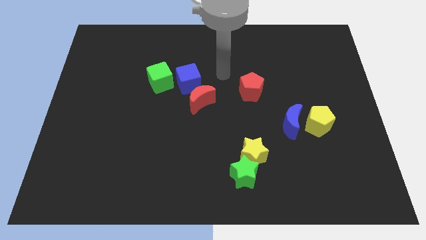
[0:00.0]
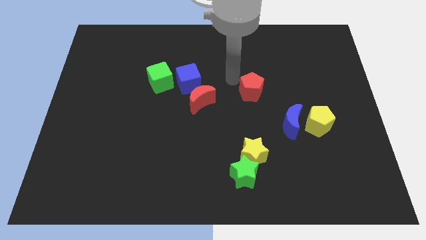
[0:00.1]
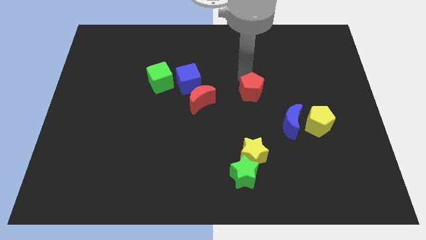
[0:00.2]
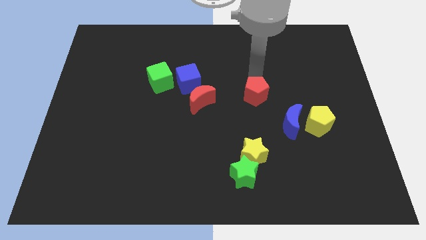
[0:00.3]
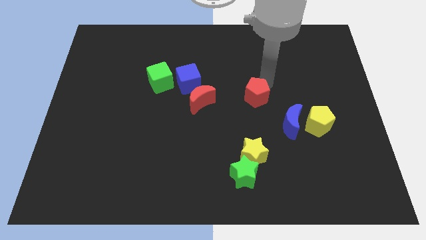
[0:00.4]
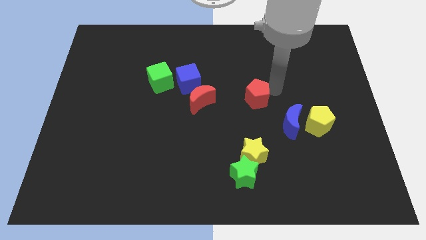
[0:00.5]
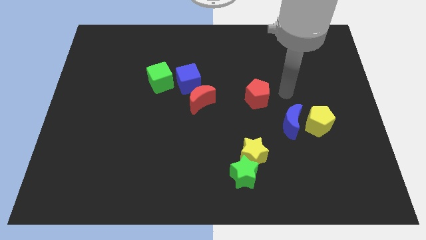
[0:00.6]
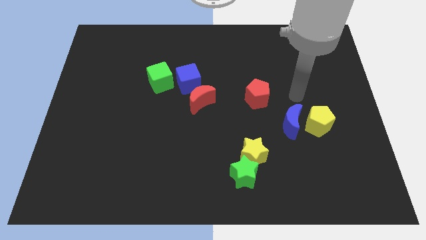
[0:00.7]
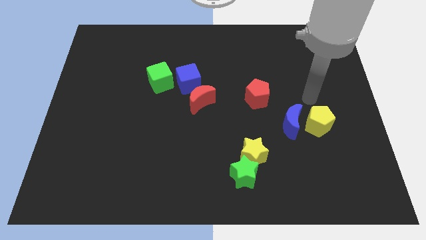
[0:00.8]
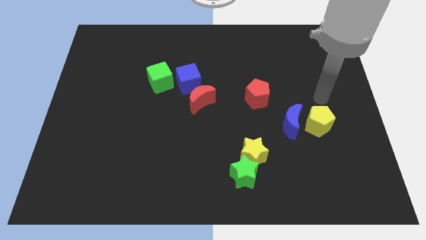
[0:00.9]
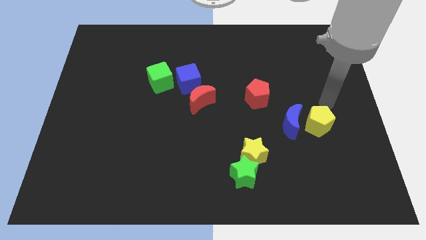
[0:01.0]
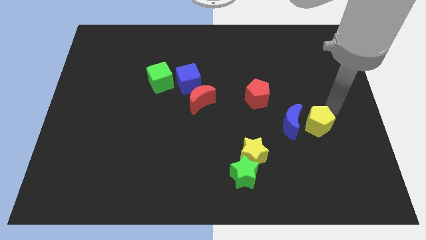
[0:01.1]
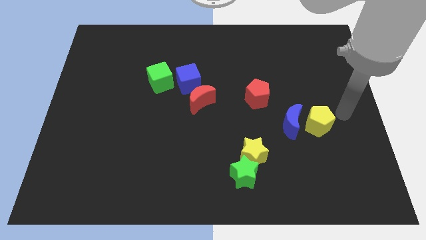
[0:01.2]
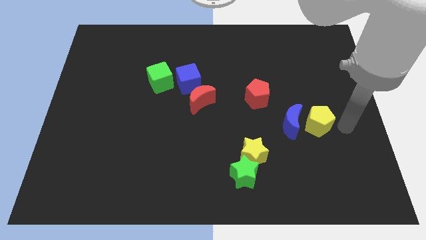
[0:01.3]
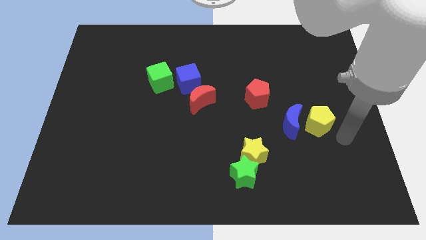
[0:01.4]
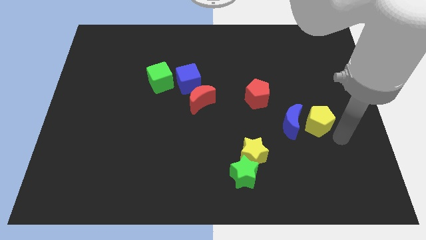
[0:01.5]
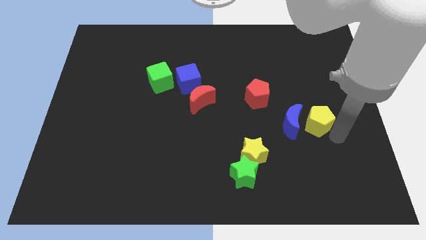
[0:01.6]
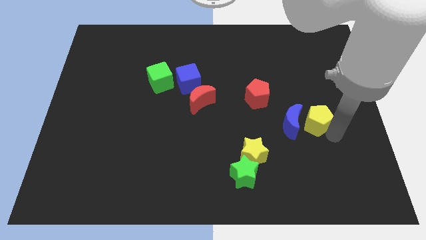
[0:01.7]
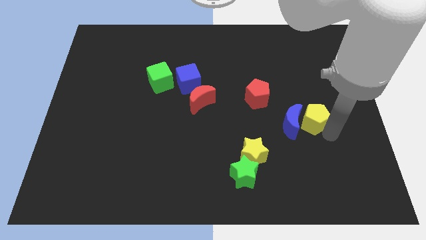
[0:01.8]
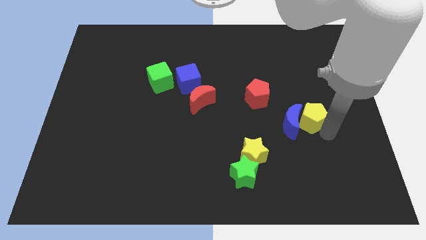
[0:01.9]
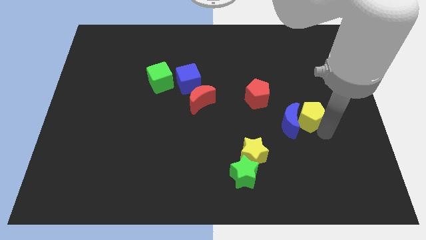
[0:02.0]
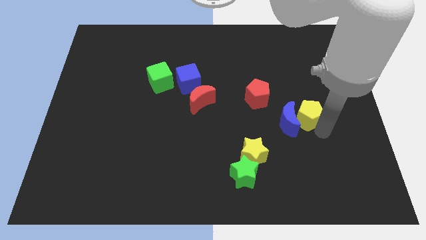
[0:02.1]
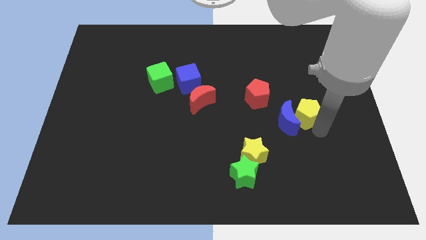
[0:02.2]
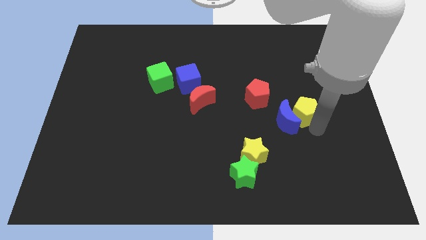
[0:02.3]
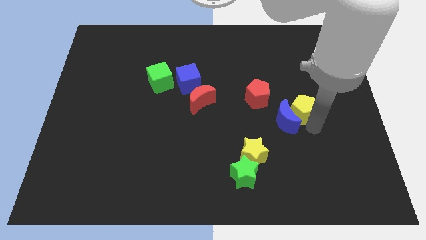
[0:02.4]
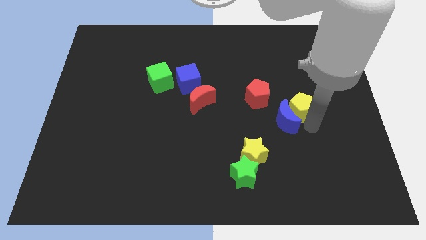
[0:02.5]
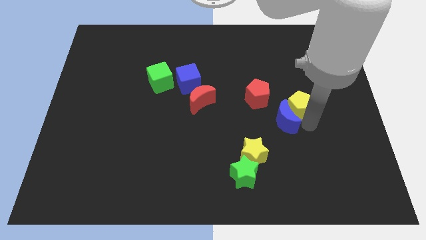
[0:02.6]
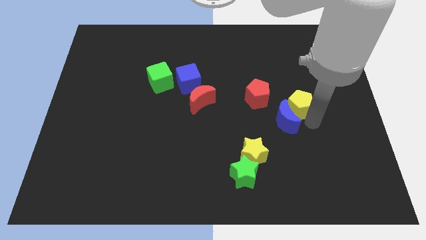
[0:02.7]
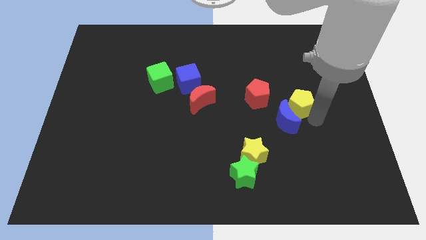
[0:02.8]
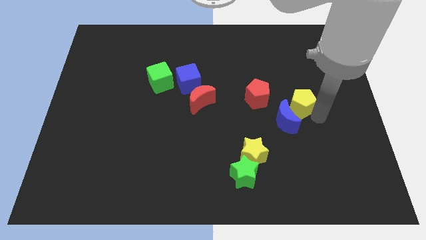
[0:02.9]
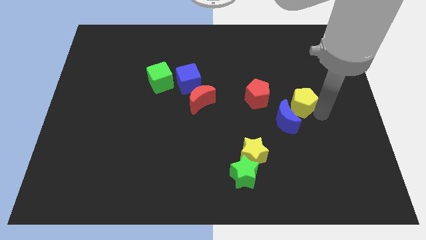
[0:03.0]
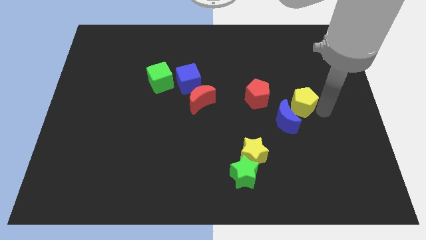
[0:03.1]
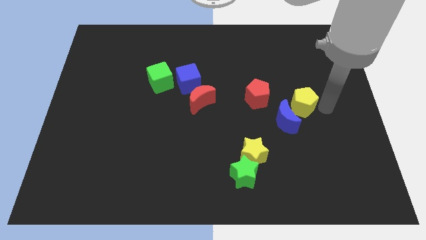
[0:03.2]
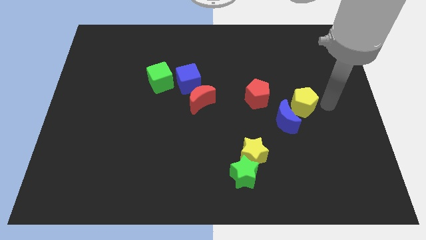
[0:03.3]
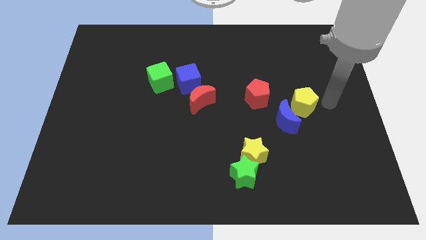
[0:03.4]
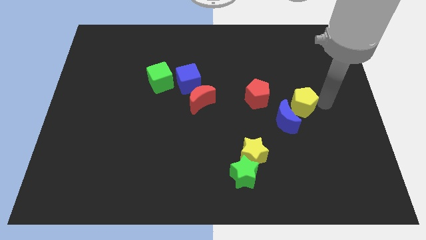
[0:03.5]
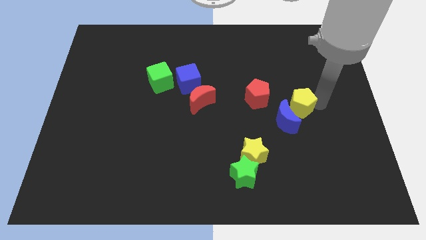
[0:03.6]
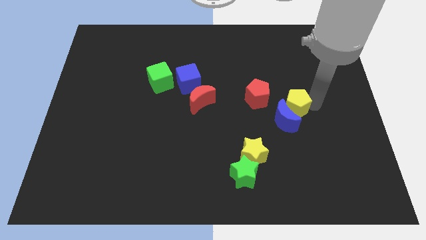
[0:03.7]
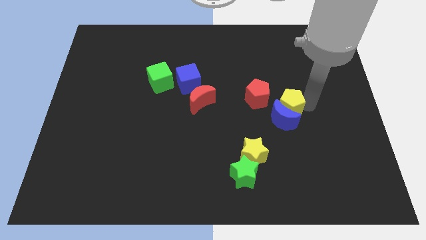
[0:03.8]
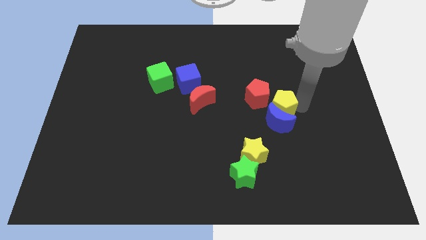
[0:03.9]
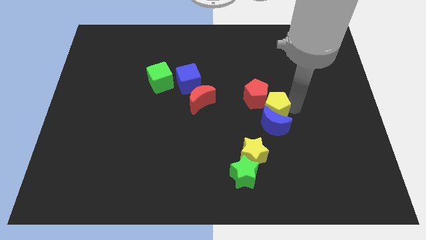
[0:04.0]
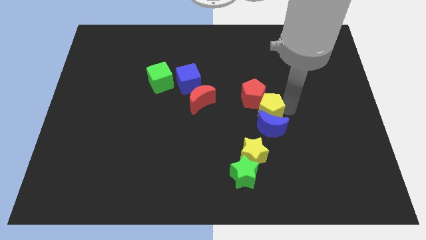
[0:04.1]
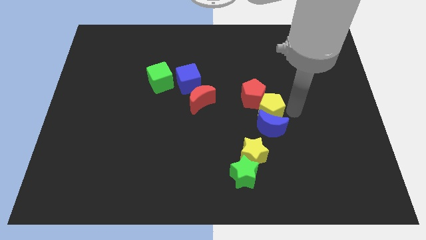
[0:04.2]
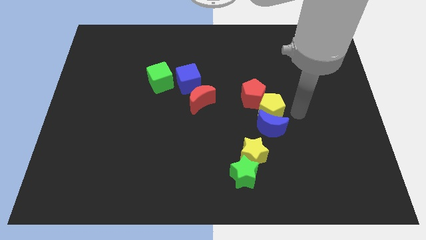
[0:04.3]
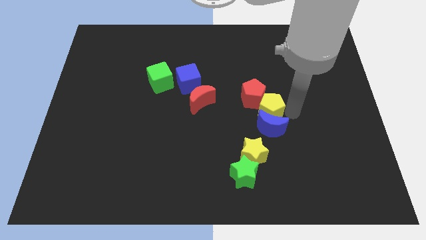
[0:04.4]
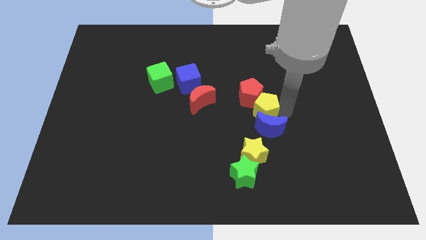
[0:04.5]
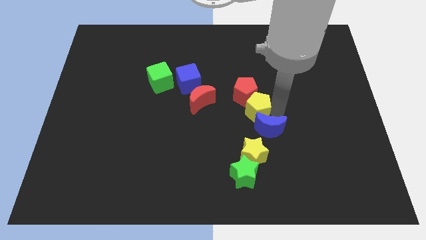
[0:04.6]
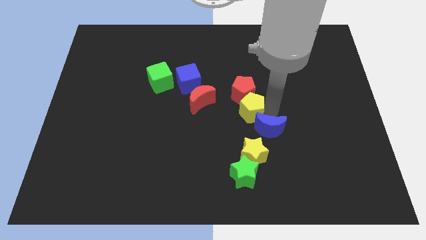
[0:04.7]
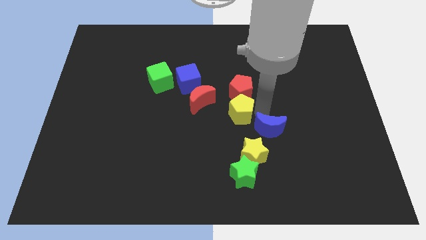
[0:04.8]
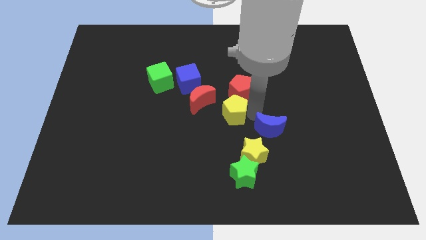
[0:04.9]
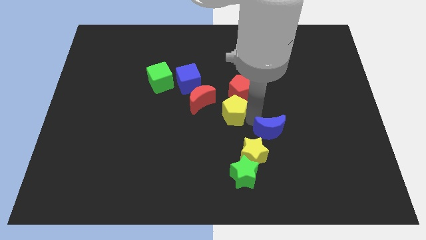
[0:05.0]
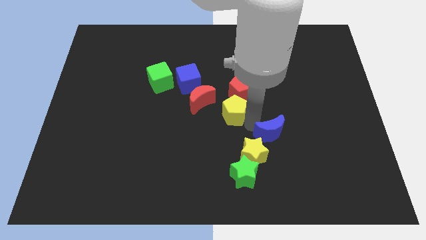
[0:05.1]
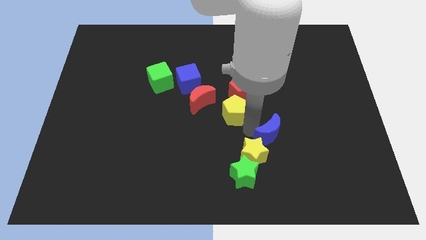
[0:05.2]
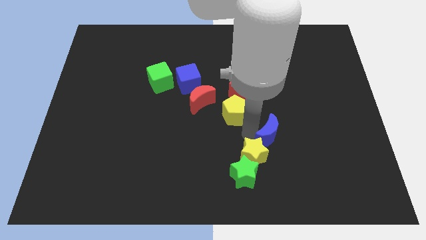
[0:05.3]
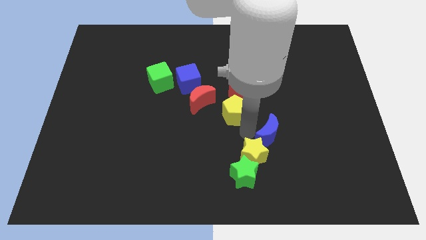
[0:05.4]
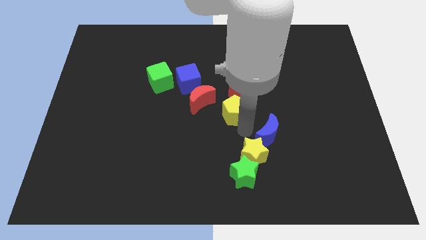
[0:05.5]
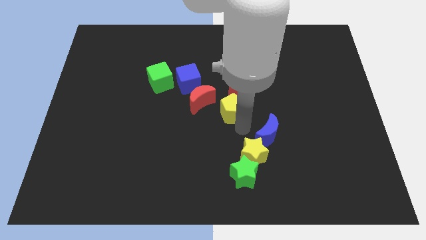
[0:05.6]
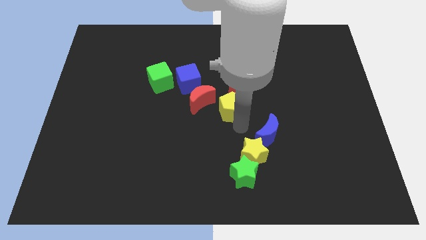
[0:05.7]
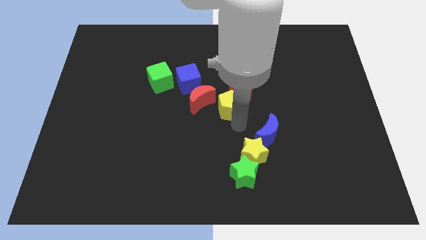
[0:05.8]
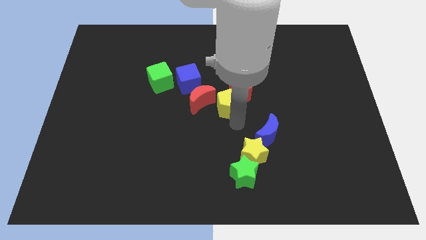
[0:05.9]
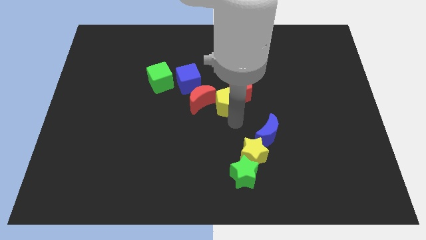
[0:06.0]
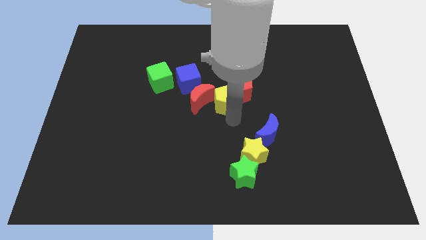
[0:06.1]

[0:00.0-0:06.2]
push the yellow pentagon close to the red moon

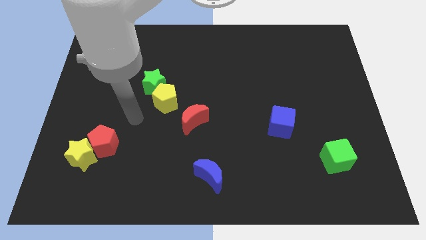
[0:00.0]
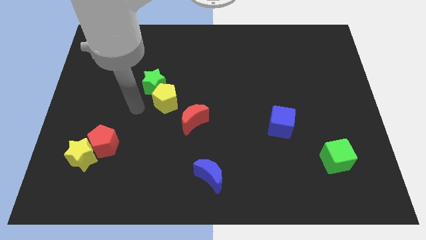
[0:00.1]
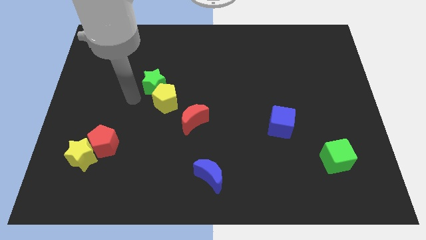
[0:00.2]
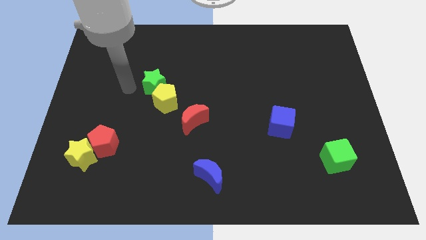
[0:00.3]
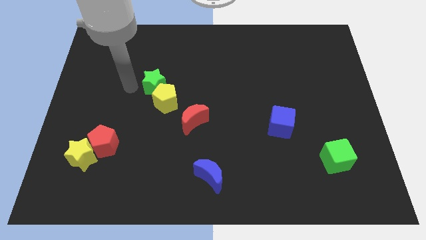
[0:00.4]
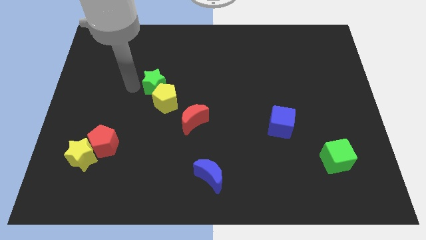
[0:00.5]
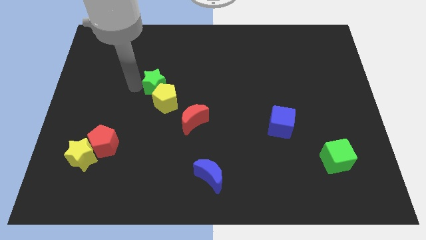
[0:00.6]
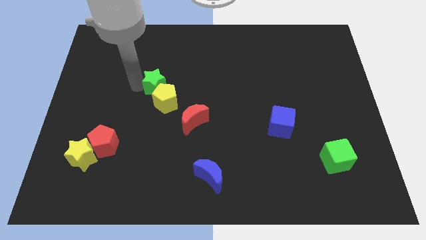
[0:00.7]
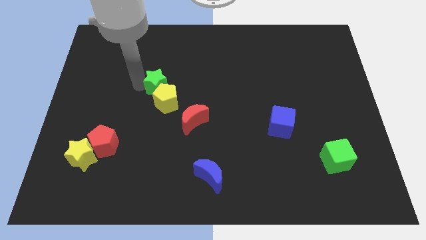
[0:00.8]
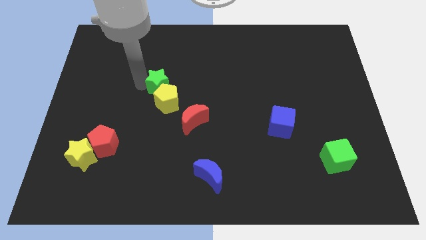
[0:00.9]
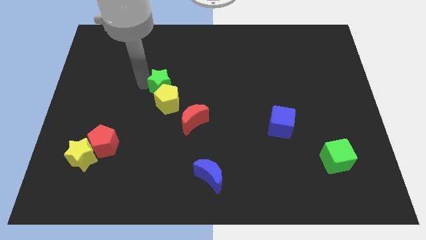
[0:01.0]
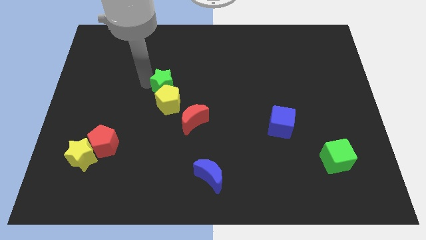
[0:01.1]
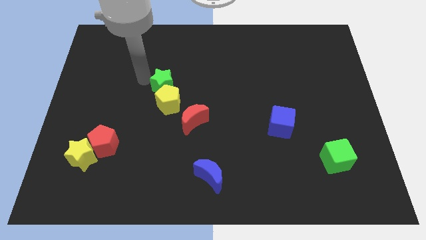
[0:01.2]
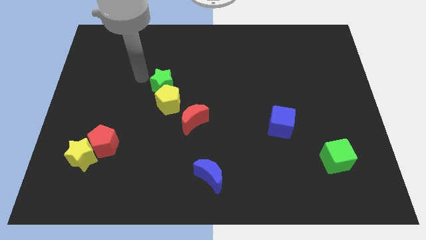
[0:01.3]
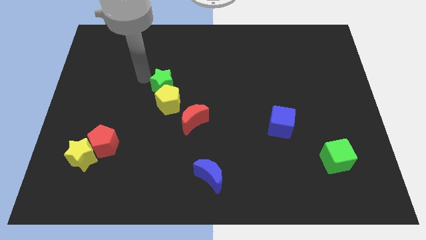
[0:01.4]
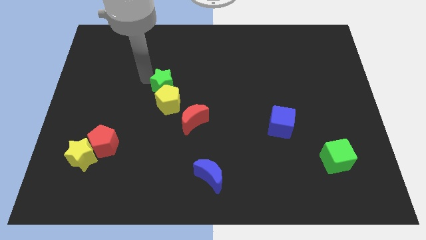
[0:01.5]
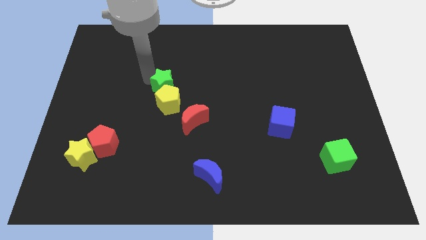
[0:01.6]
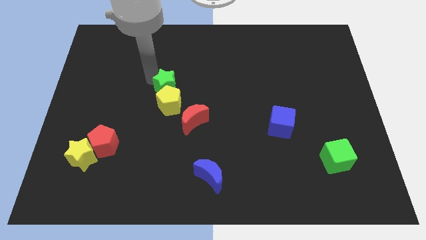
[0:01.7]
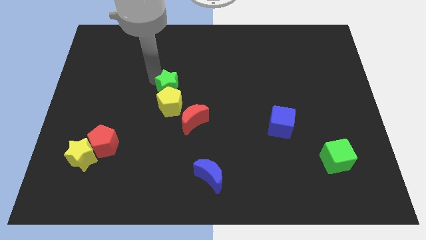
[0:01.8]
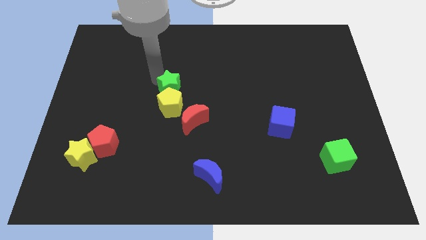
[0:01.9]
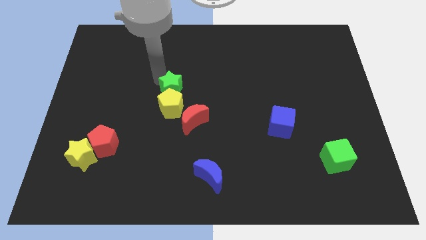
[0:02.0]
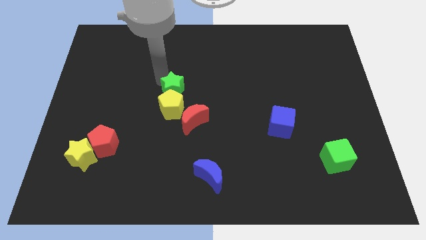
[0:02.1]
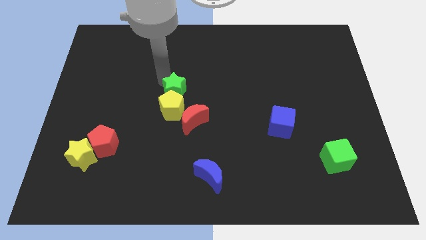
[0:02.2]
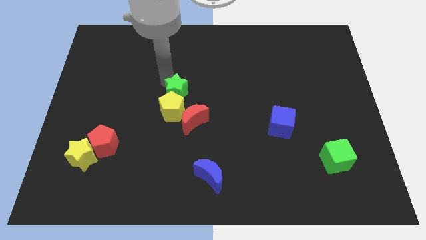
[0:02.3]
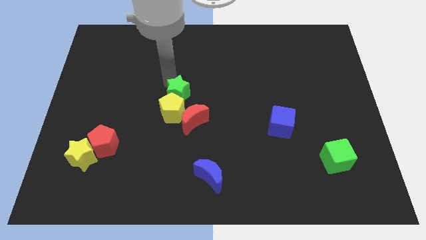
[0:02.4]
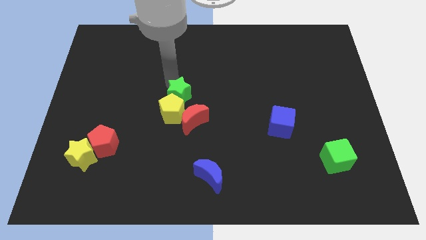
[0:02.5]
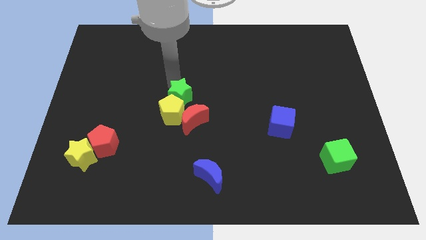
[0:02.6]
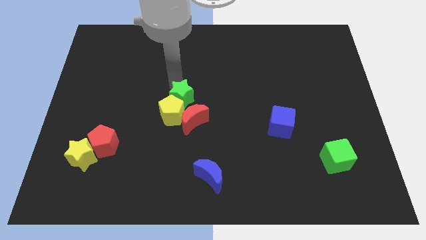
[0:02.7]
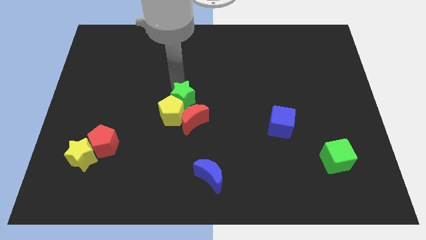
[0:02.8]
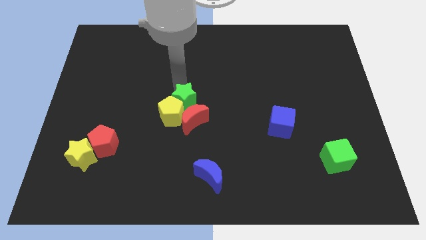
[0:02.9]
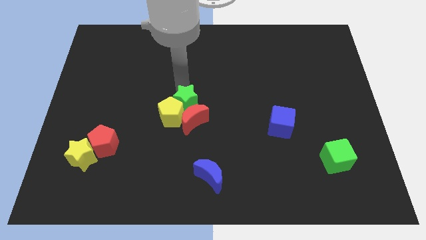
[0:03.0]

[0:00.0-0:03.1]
push the green star to the red moon
